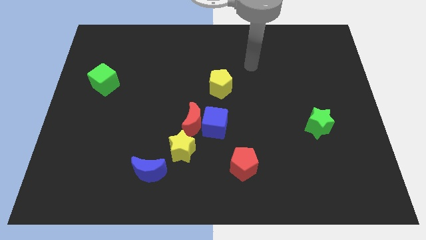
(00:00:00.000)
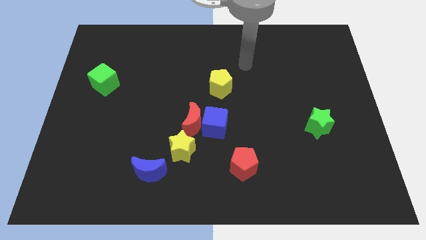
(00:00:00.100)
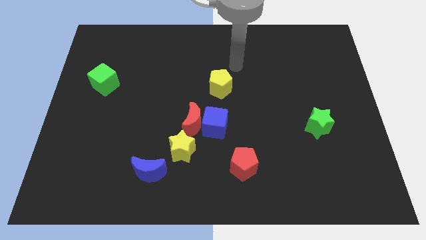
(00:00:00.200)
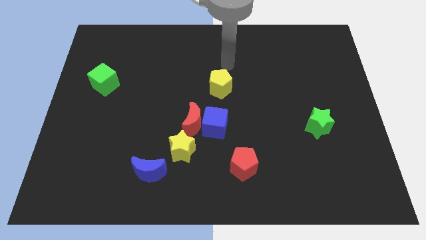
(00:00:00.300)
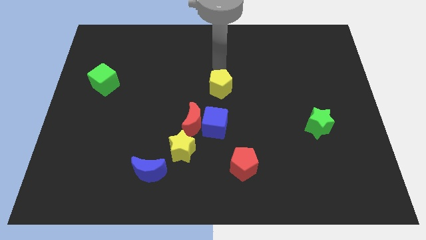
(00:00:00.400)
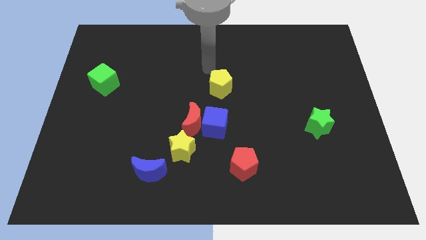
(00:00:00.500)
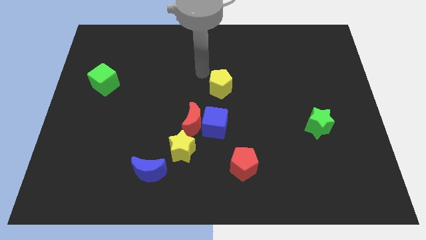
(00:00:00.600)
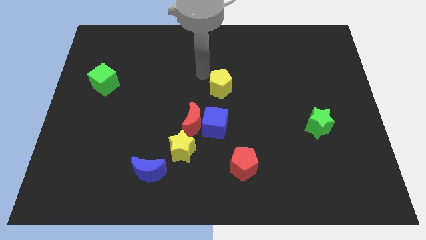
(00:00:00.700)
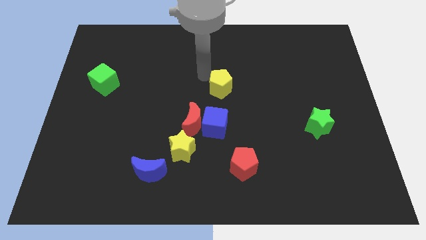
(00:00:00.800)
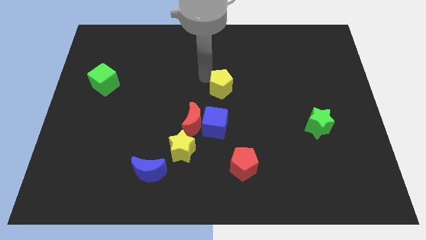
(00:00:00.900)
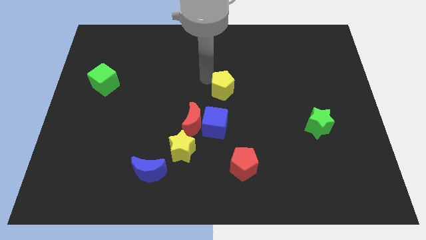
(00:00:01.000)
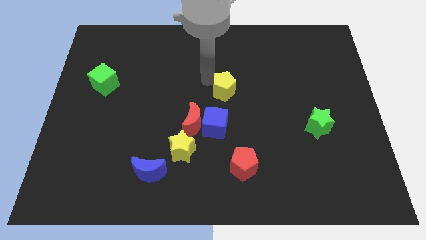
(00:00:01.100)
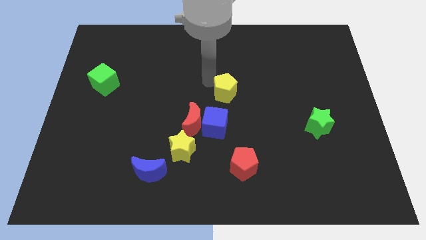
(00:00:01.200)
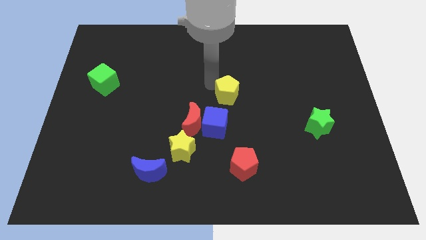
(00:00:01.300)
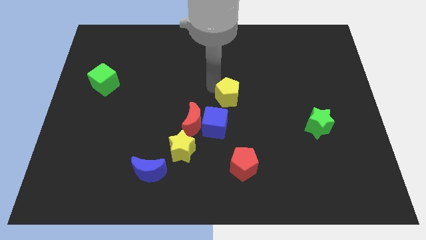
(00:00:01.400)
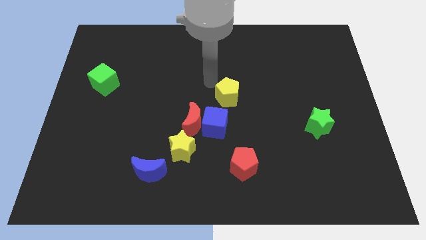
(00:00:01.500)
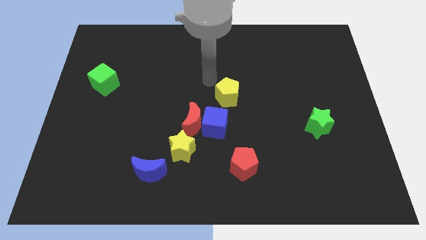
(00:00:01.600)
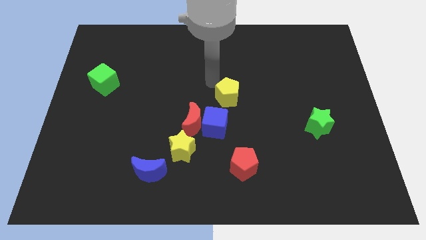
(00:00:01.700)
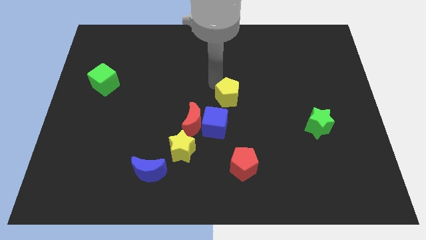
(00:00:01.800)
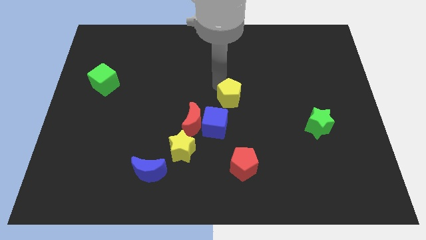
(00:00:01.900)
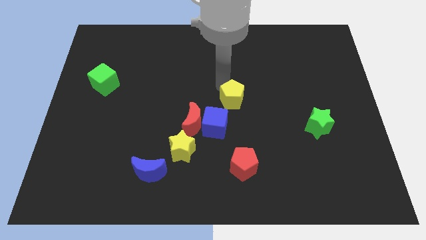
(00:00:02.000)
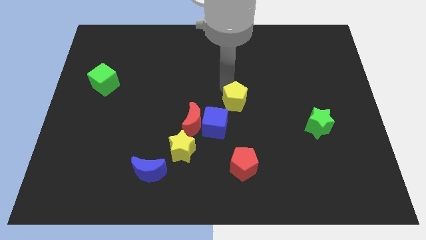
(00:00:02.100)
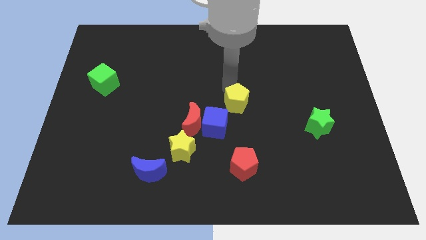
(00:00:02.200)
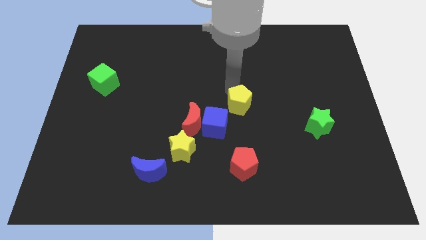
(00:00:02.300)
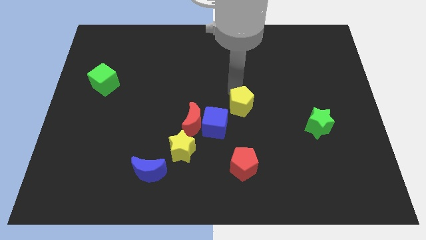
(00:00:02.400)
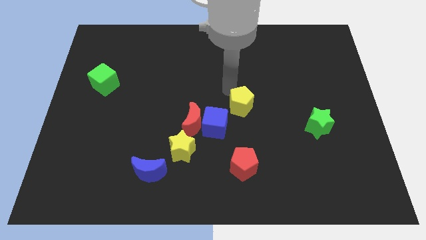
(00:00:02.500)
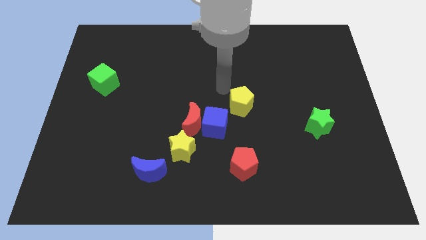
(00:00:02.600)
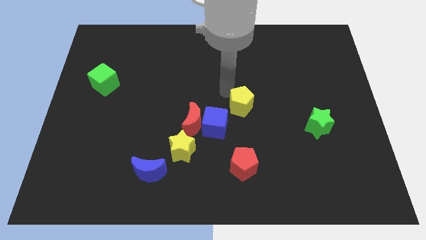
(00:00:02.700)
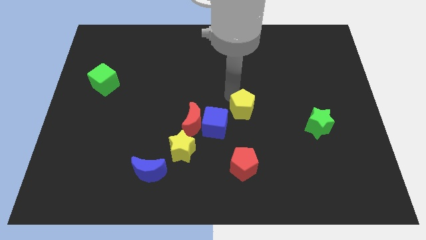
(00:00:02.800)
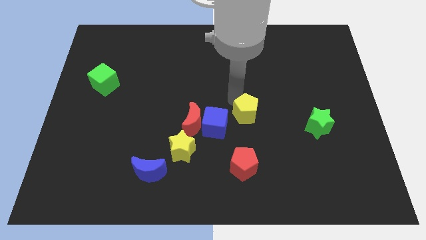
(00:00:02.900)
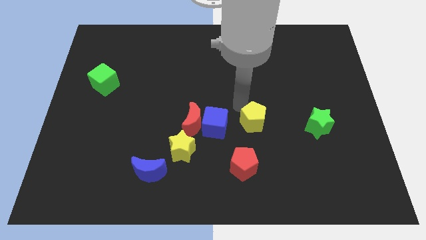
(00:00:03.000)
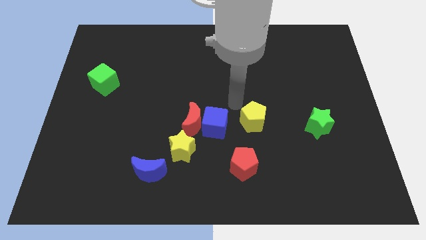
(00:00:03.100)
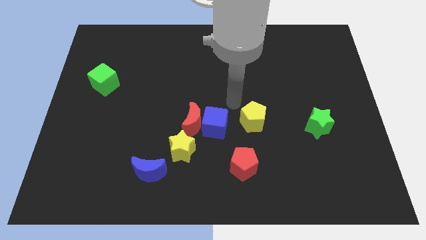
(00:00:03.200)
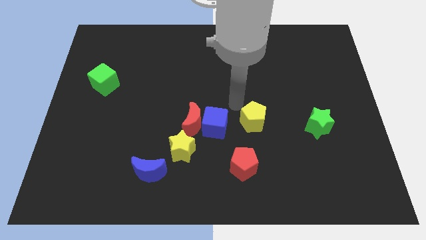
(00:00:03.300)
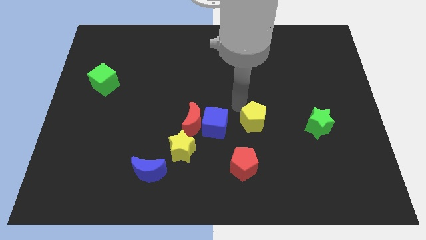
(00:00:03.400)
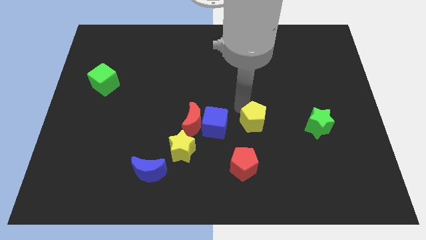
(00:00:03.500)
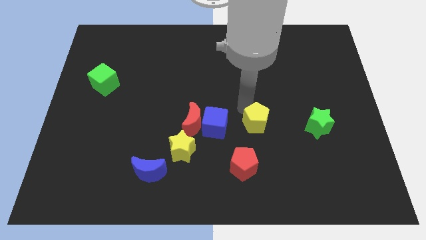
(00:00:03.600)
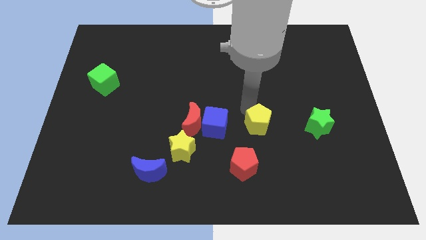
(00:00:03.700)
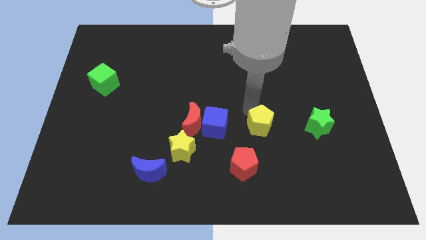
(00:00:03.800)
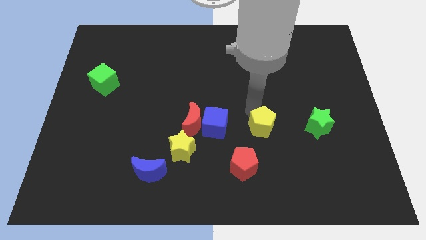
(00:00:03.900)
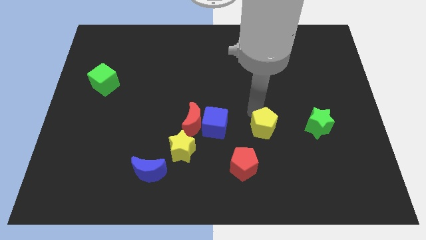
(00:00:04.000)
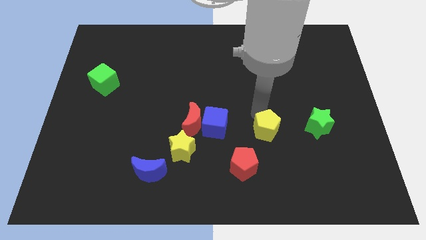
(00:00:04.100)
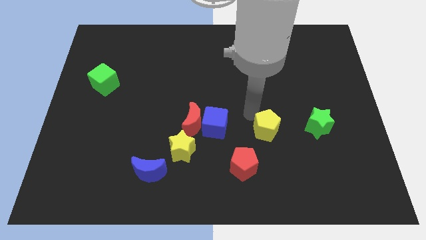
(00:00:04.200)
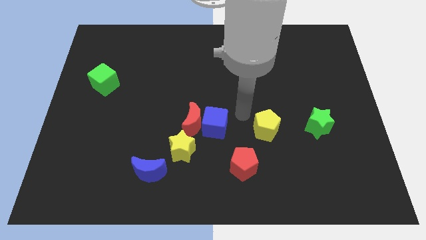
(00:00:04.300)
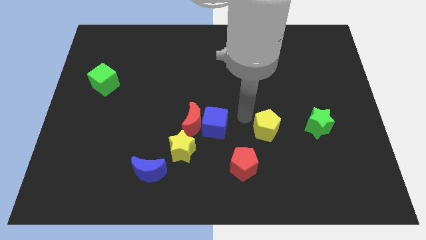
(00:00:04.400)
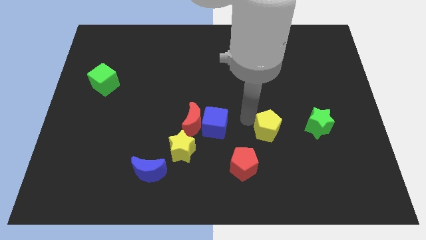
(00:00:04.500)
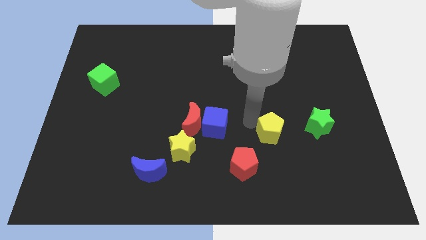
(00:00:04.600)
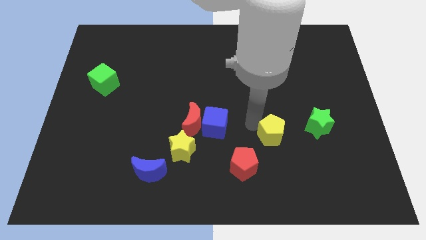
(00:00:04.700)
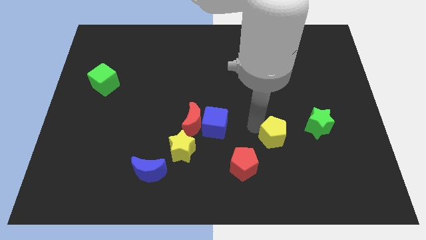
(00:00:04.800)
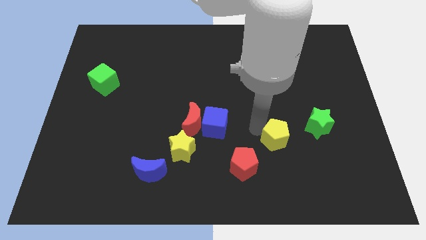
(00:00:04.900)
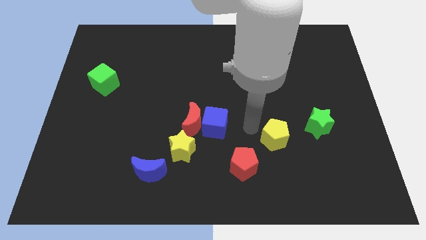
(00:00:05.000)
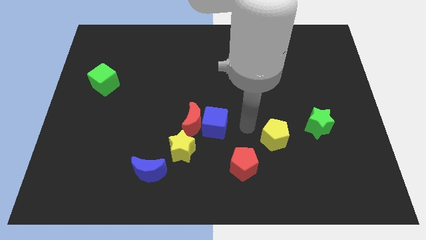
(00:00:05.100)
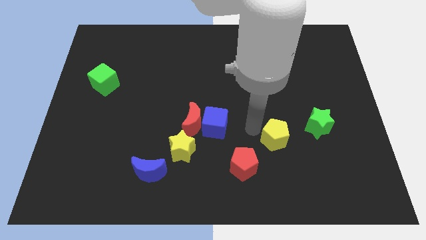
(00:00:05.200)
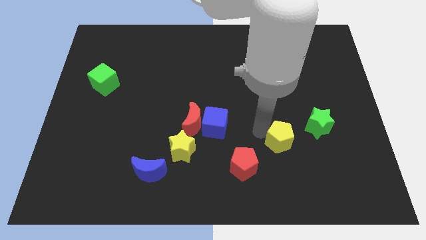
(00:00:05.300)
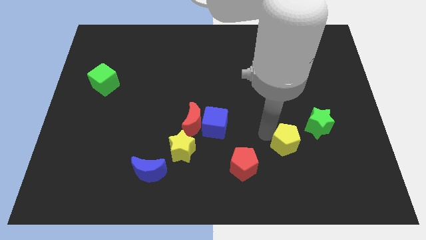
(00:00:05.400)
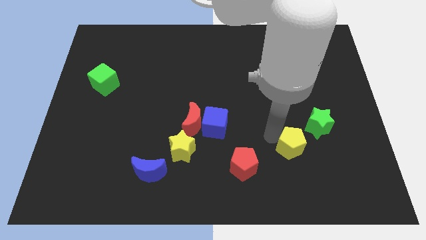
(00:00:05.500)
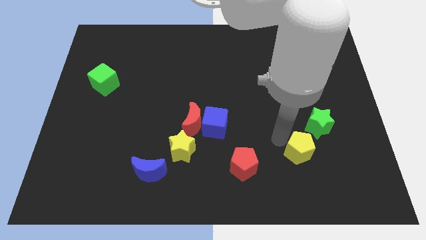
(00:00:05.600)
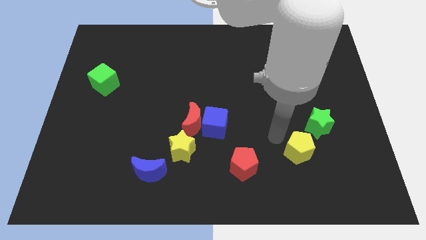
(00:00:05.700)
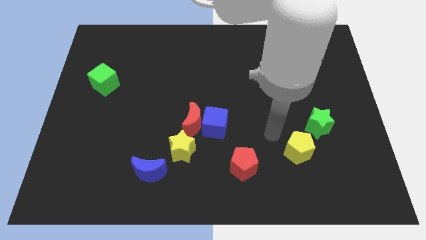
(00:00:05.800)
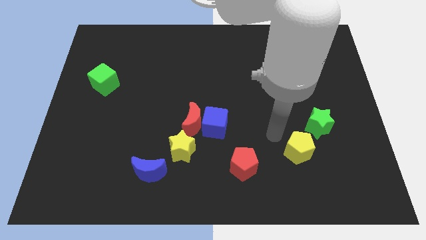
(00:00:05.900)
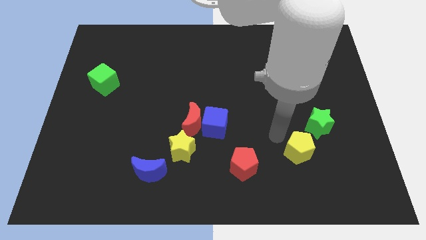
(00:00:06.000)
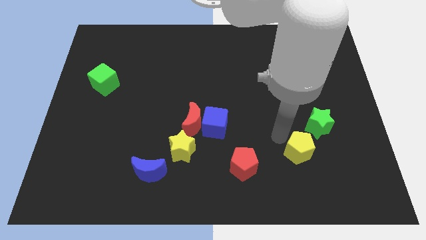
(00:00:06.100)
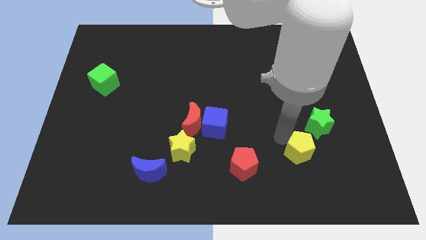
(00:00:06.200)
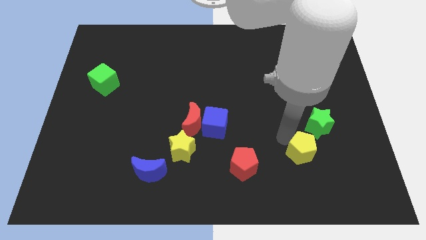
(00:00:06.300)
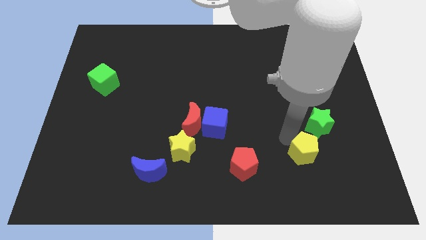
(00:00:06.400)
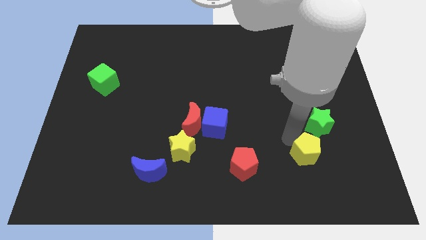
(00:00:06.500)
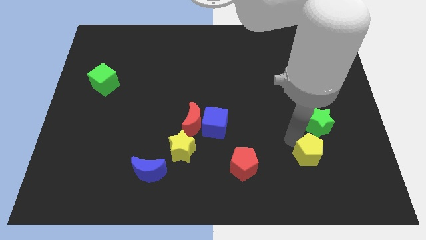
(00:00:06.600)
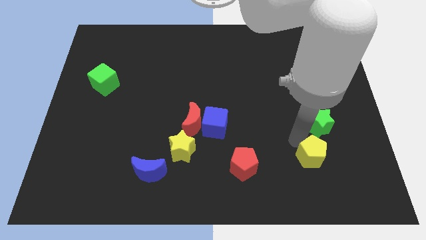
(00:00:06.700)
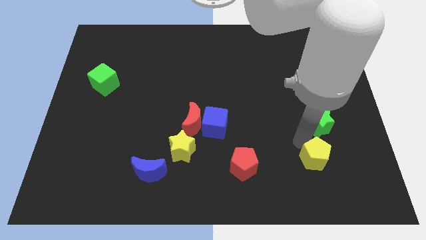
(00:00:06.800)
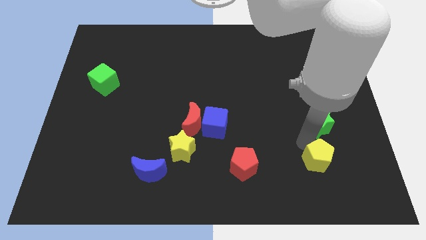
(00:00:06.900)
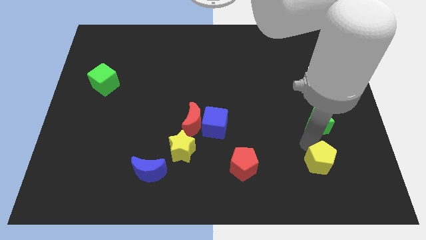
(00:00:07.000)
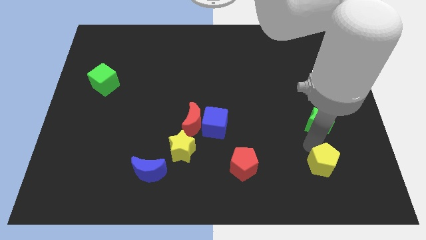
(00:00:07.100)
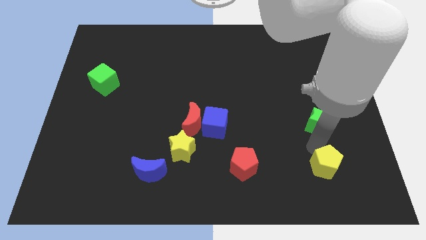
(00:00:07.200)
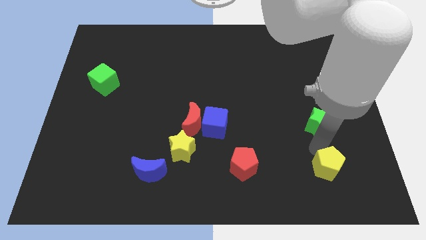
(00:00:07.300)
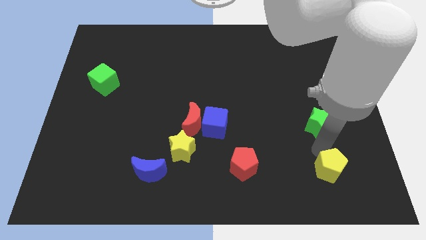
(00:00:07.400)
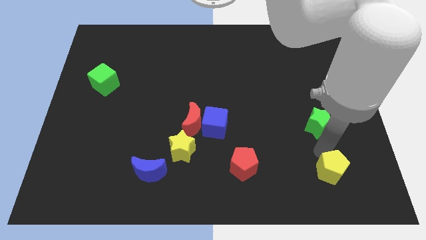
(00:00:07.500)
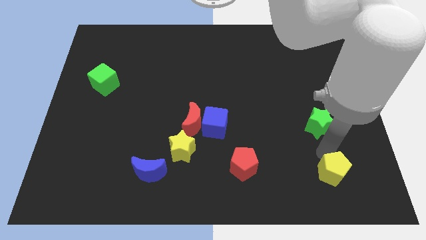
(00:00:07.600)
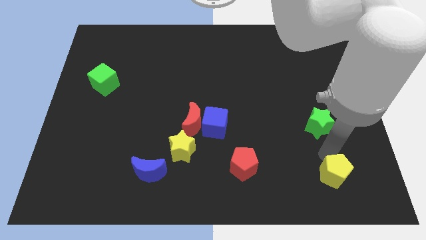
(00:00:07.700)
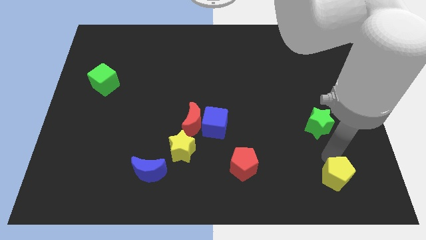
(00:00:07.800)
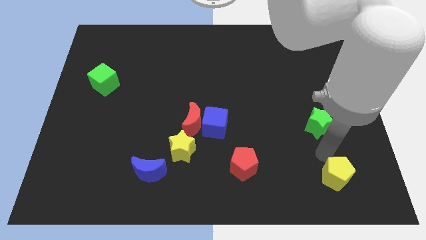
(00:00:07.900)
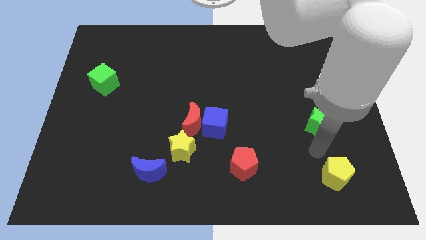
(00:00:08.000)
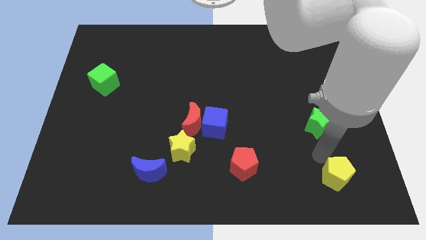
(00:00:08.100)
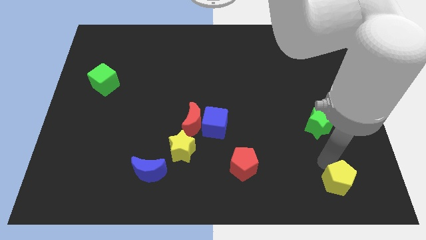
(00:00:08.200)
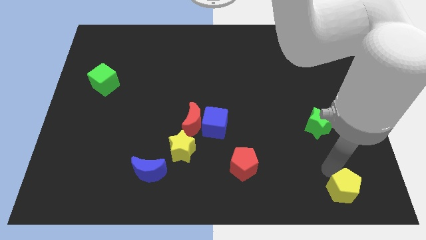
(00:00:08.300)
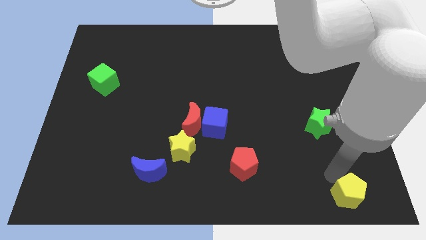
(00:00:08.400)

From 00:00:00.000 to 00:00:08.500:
slide the yellow pentagon to the bottom right
